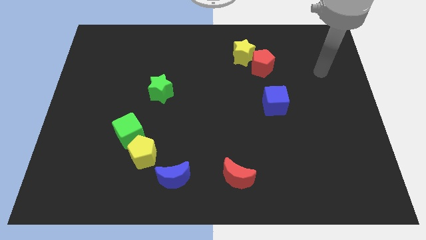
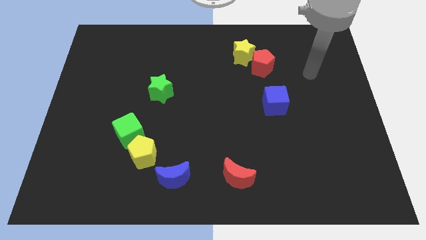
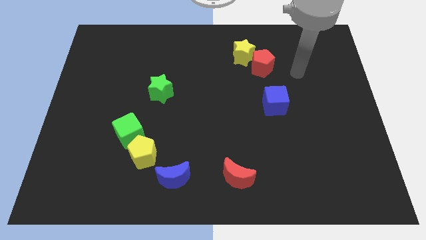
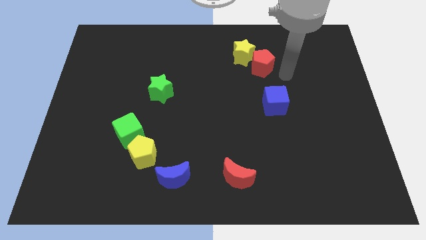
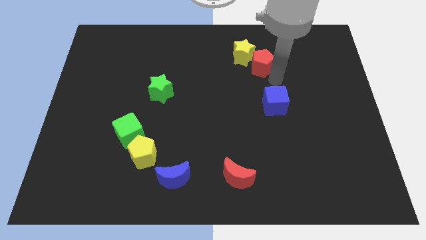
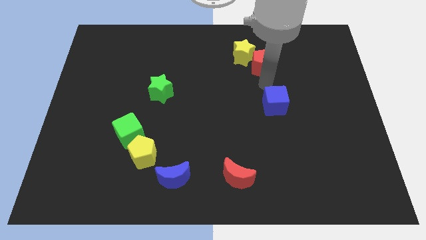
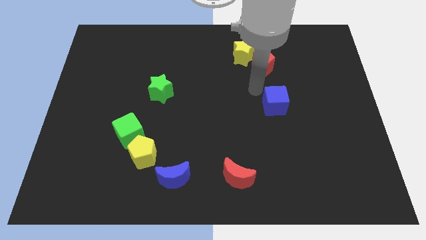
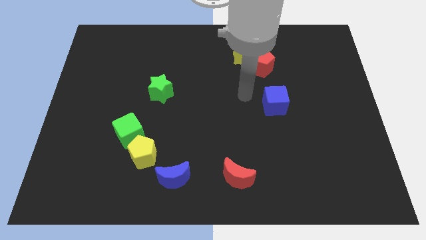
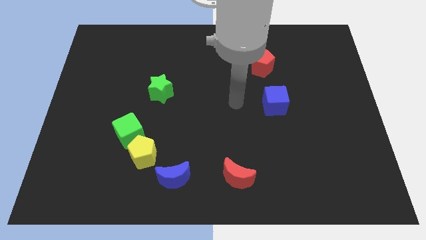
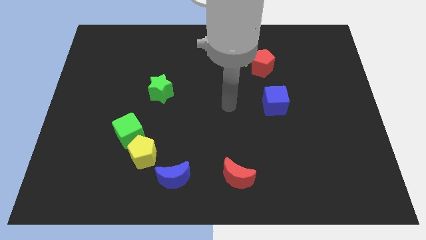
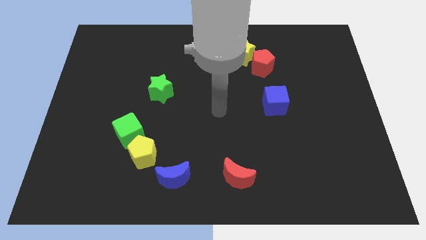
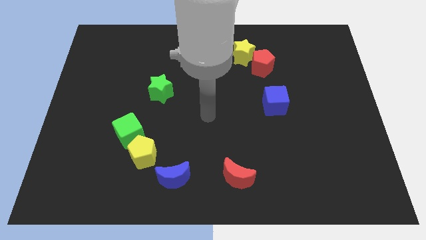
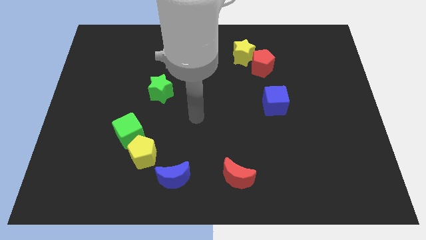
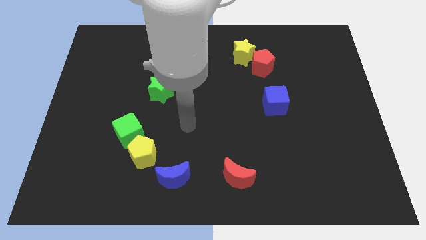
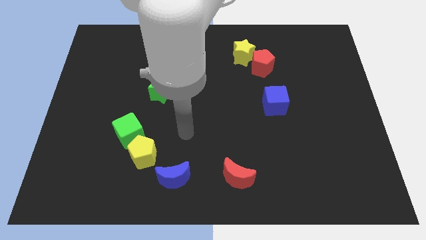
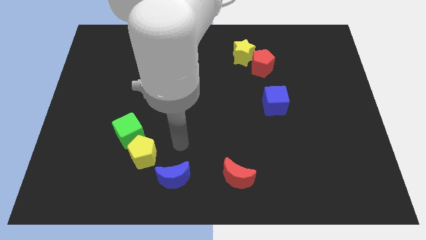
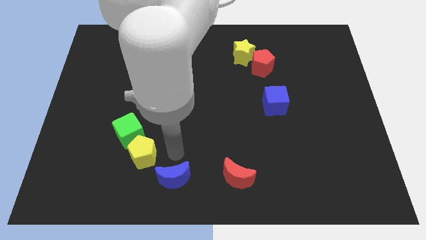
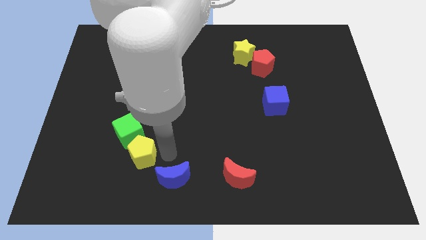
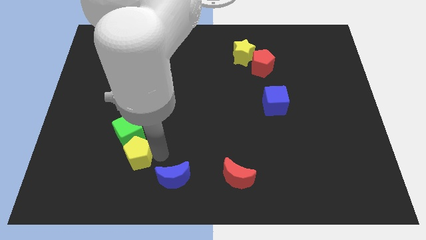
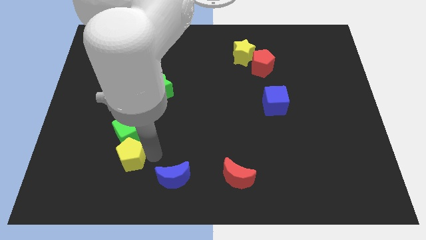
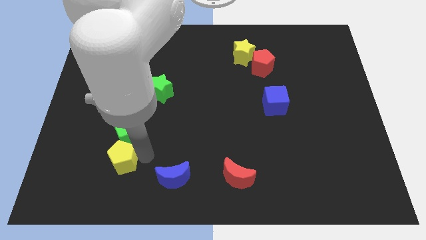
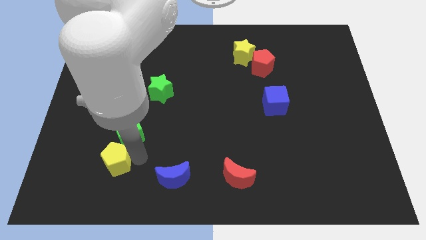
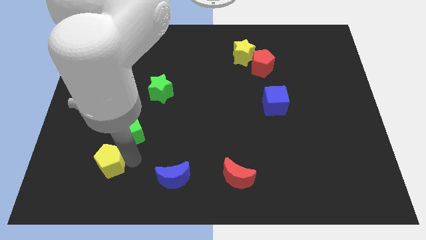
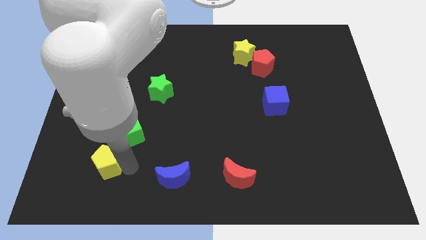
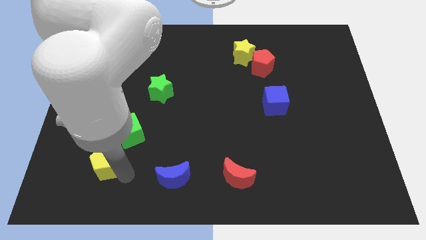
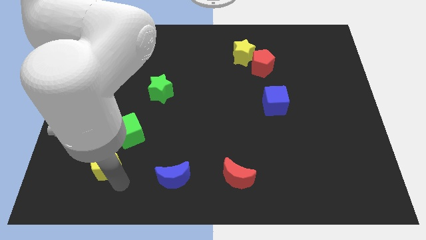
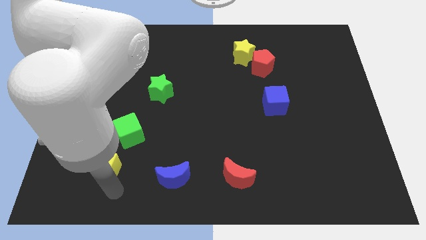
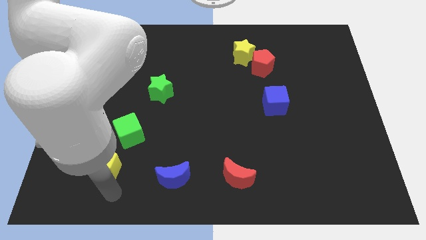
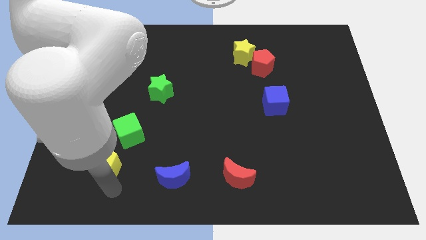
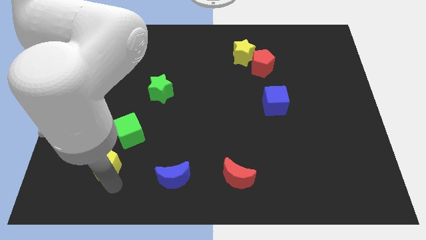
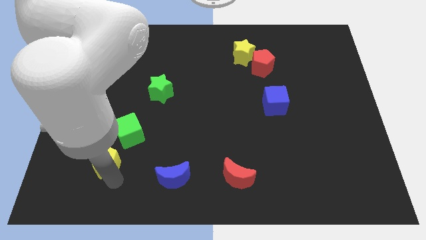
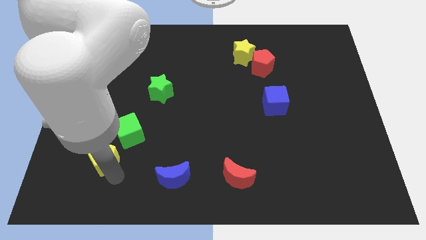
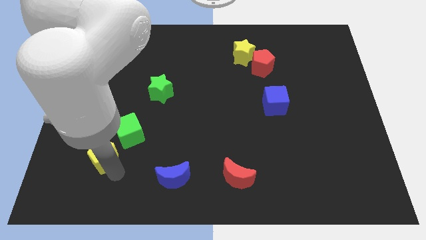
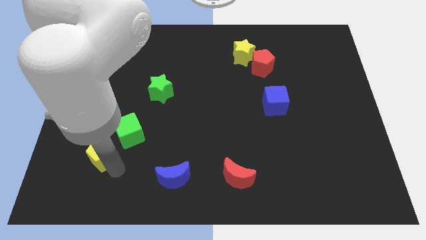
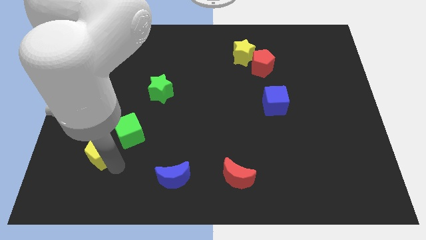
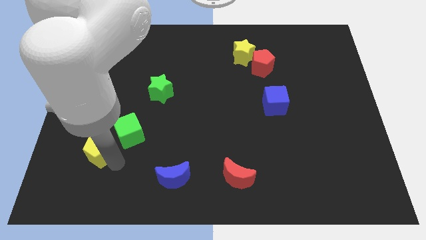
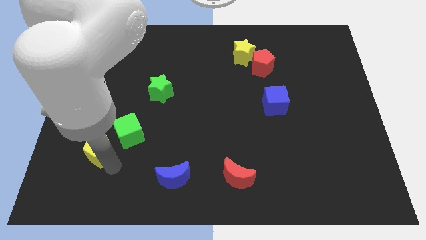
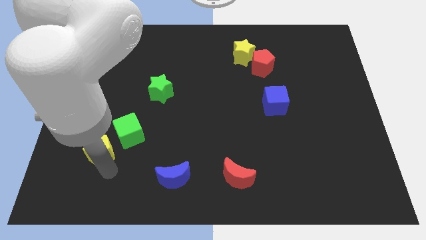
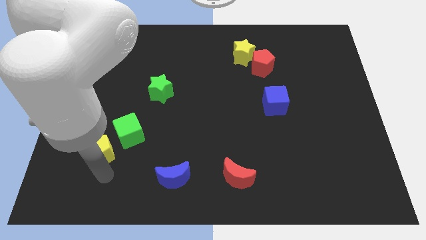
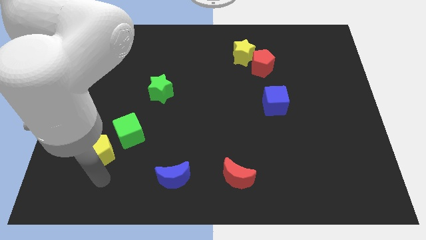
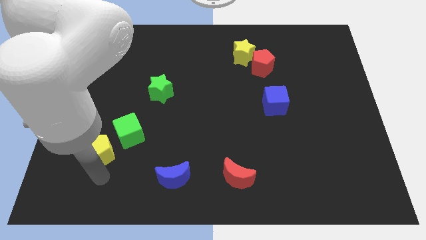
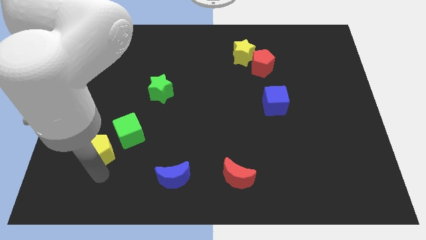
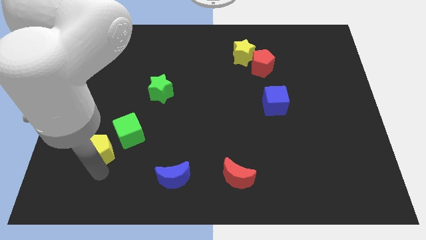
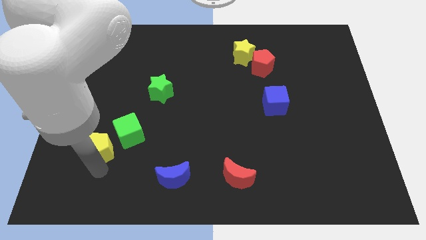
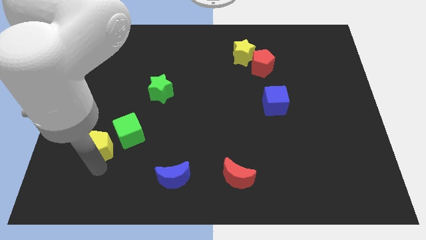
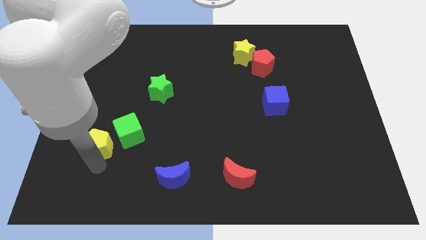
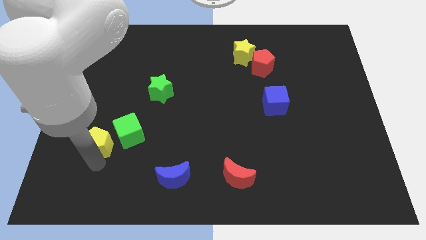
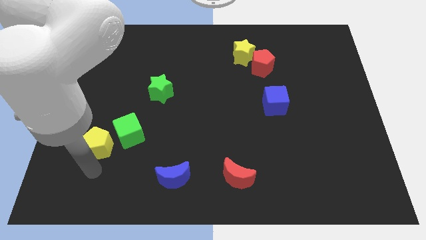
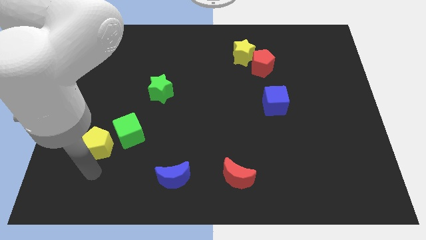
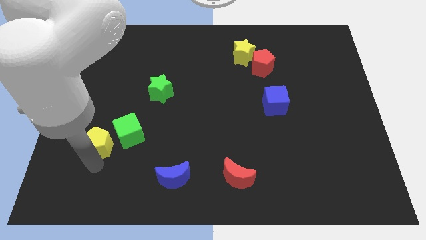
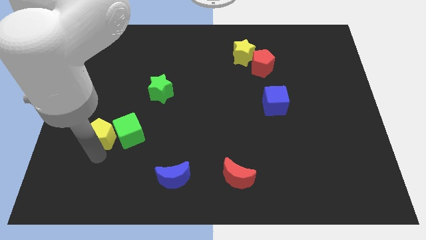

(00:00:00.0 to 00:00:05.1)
put the yellow pentagon to the top left of the green cube

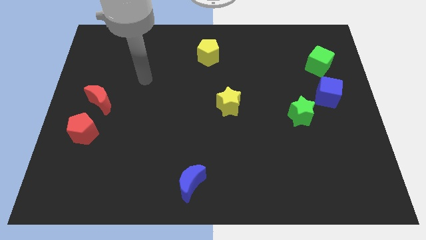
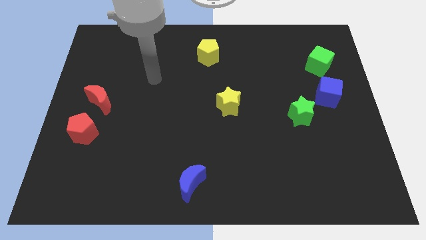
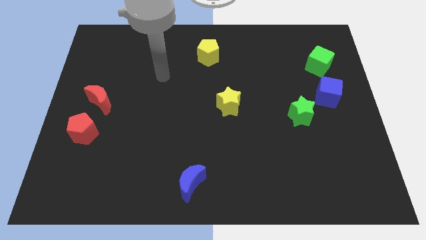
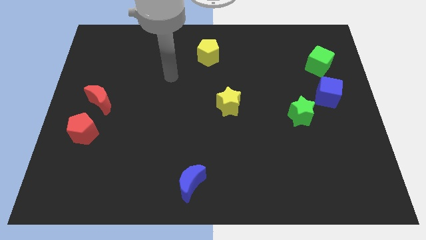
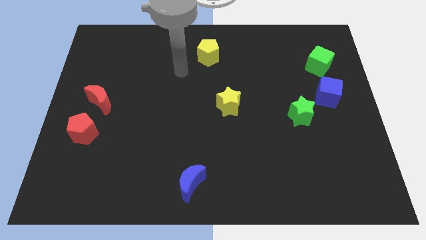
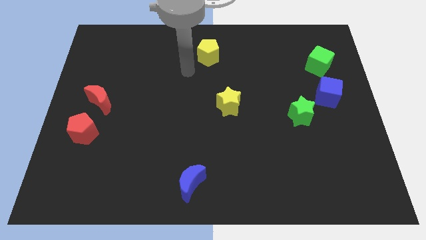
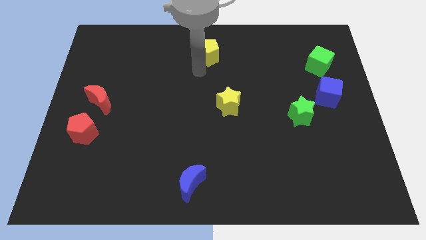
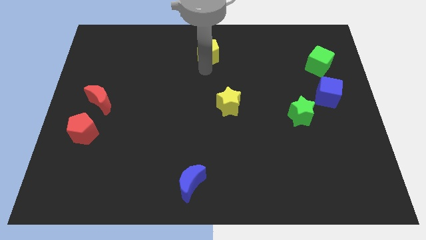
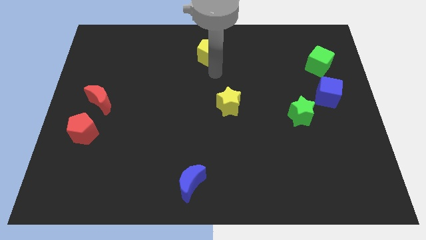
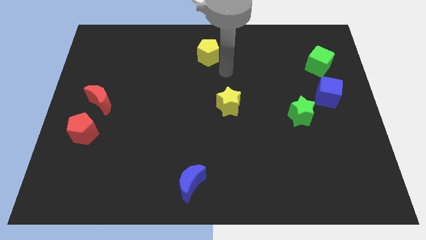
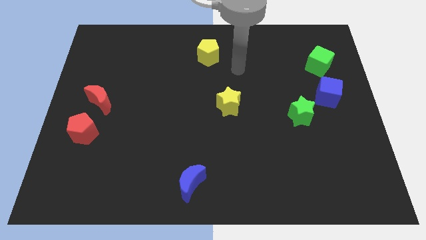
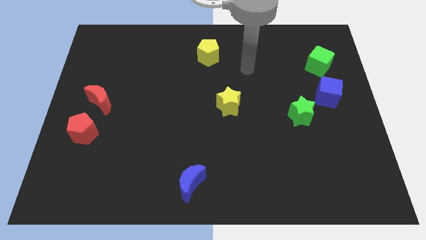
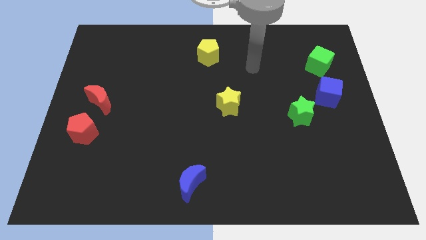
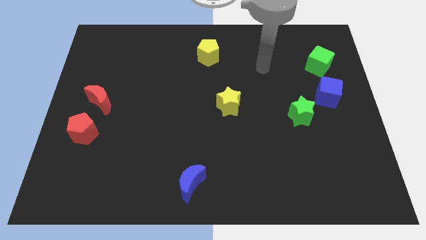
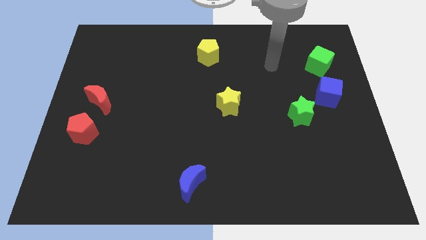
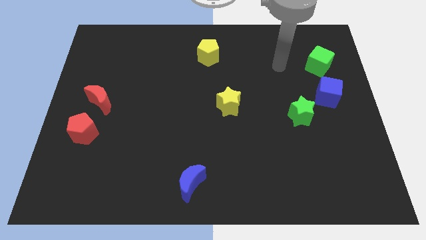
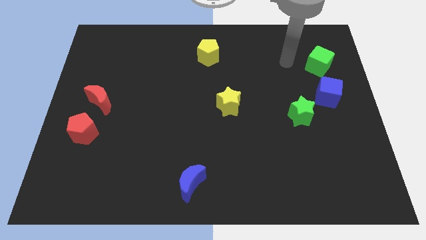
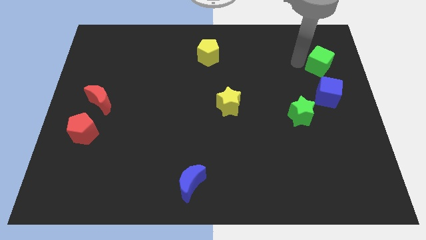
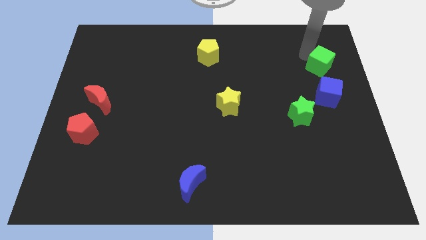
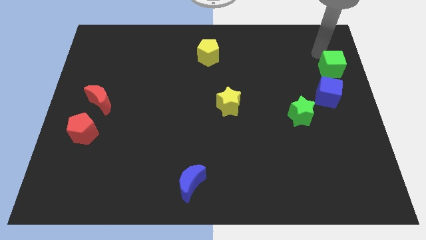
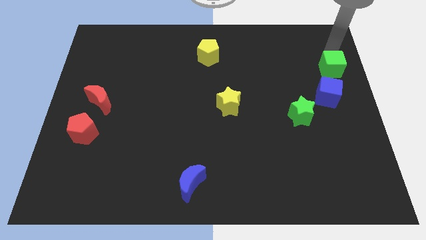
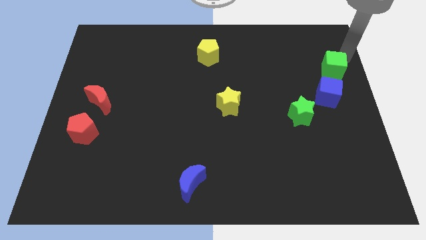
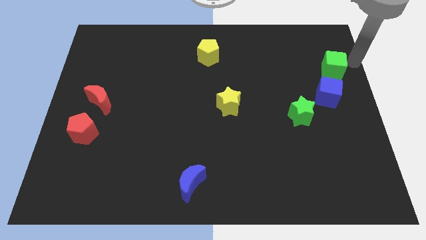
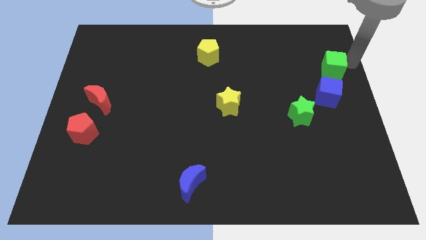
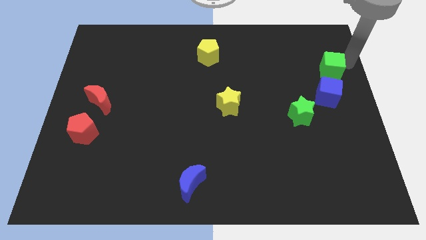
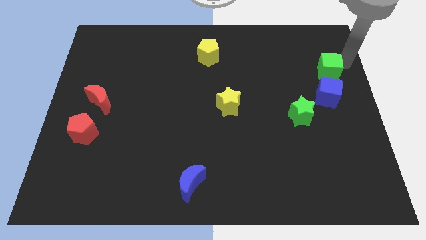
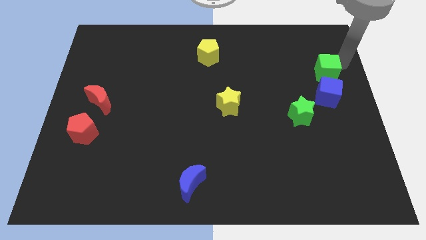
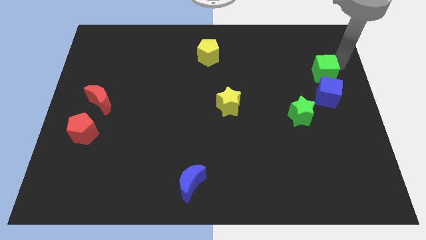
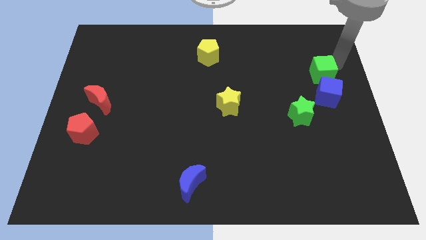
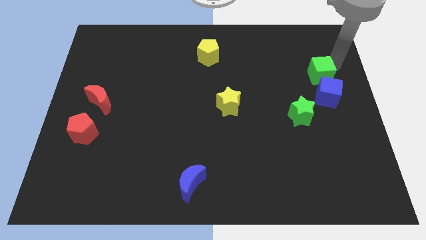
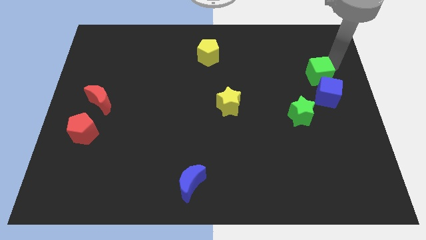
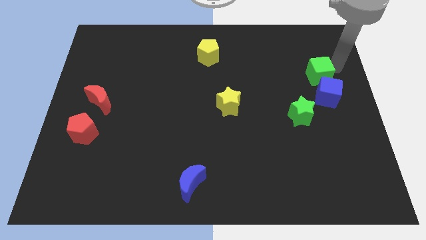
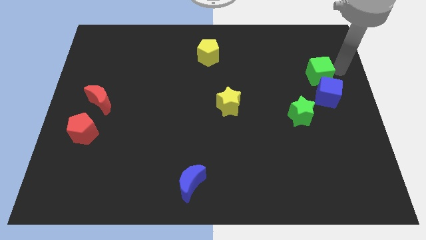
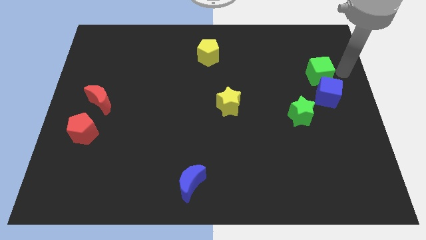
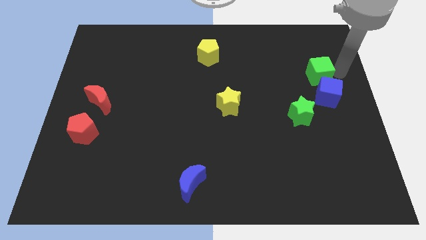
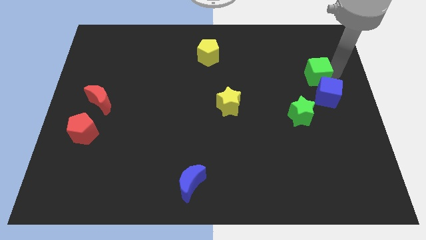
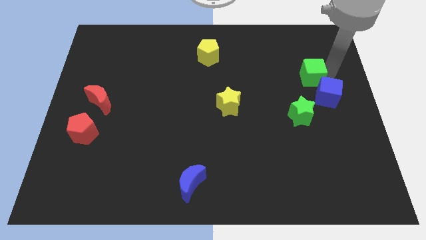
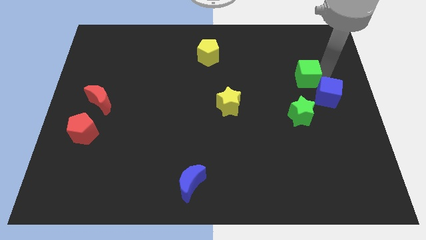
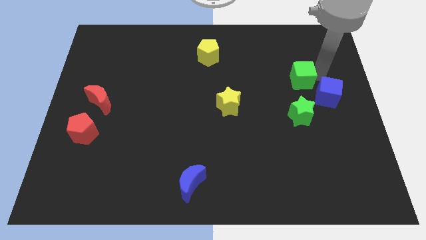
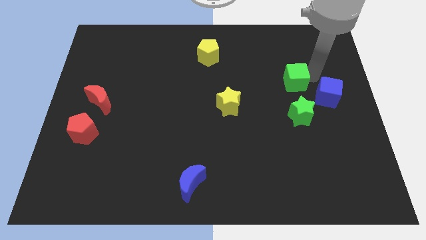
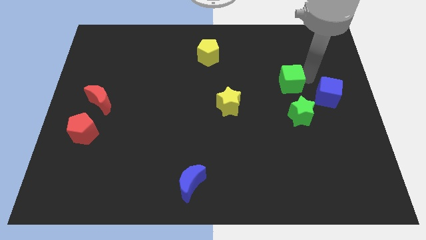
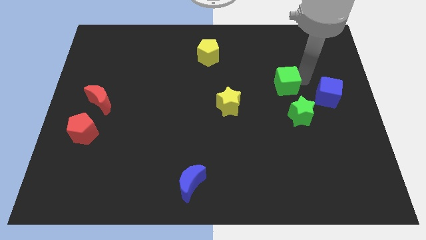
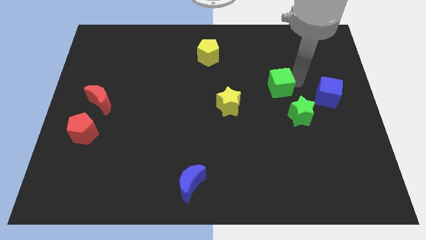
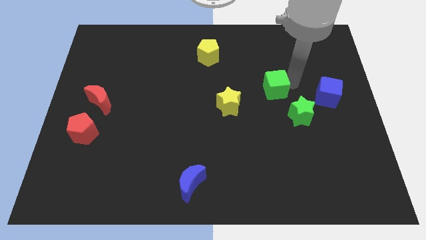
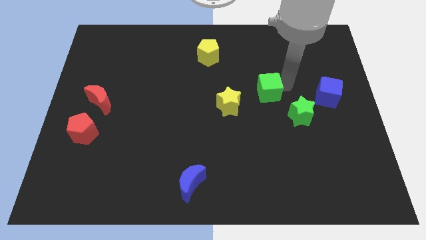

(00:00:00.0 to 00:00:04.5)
slide the green cube to the top right of the yellow star
